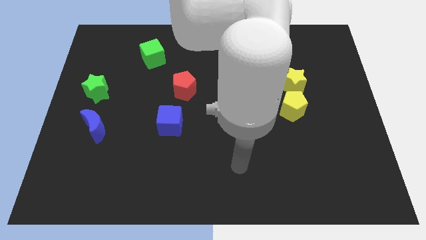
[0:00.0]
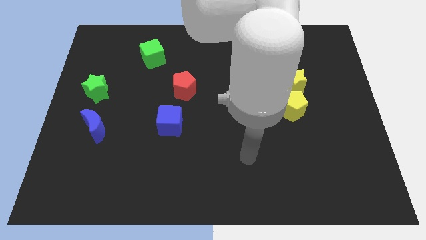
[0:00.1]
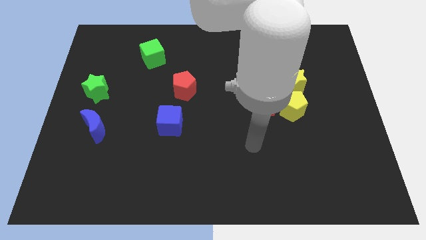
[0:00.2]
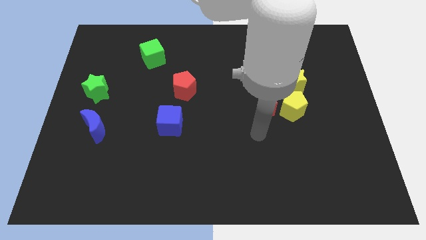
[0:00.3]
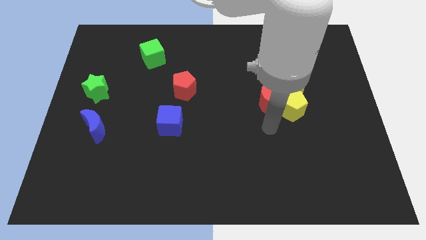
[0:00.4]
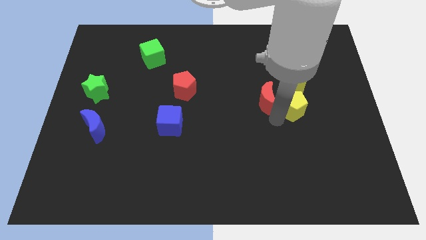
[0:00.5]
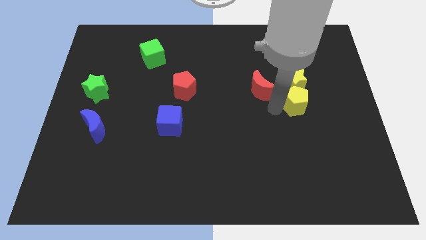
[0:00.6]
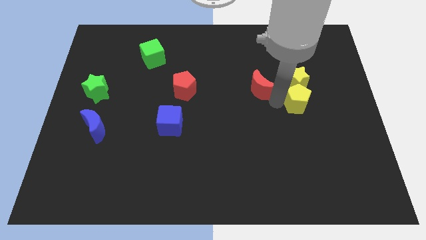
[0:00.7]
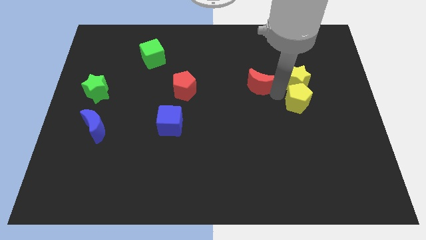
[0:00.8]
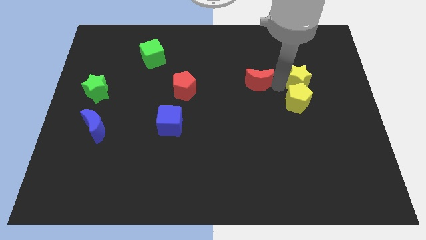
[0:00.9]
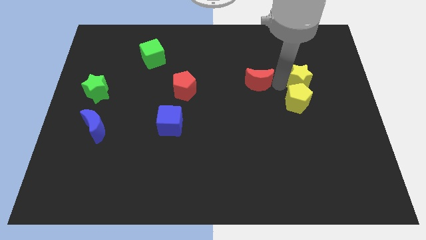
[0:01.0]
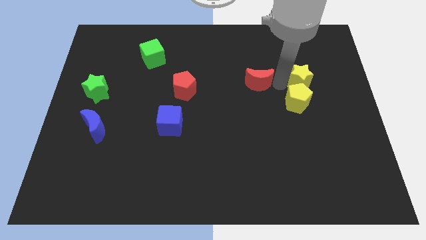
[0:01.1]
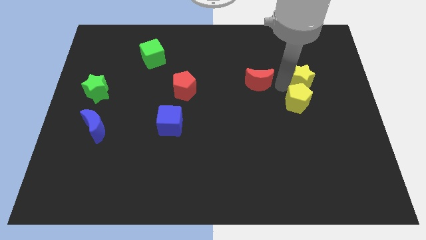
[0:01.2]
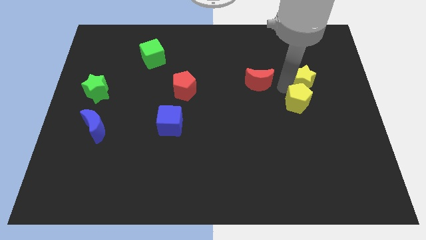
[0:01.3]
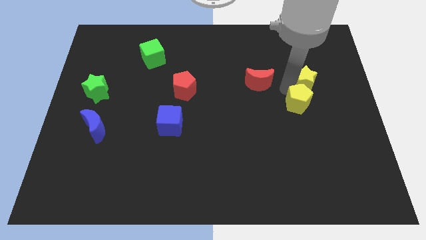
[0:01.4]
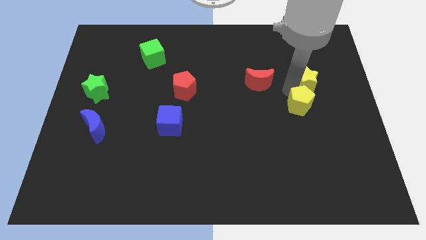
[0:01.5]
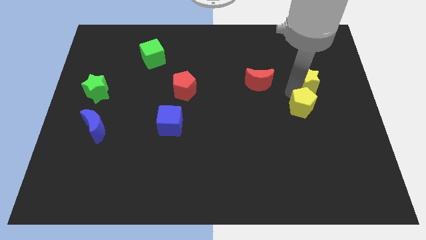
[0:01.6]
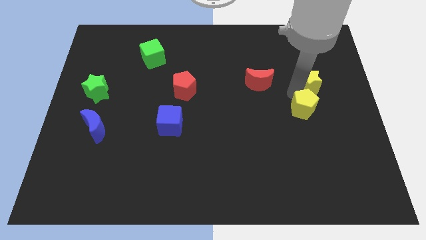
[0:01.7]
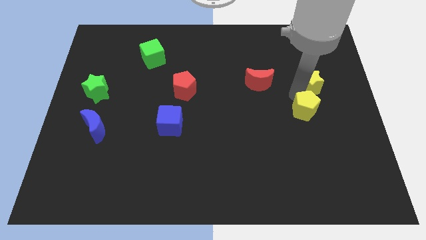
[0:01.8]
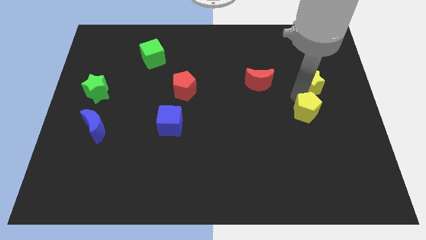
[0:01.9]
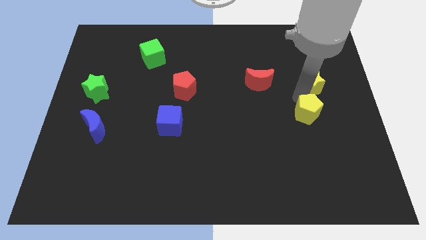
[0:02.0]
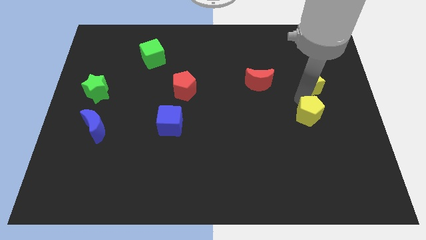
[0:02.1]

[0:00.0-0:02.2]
separate the yellow pentagon from the red moon and yellow star

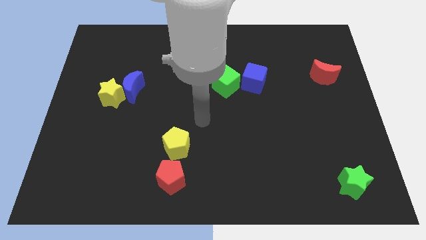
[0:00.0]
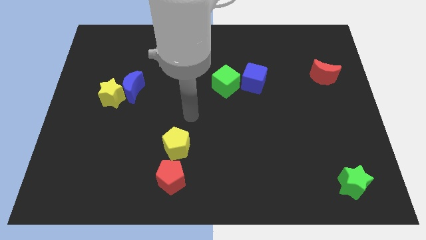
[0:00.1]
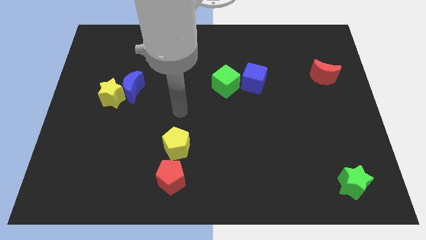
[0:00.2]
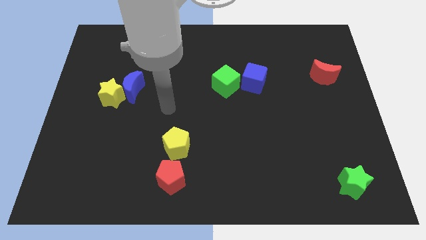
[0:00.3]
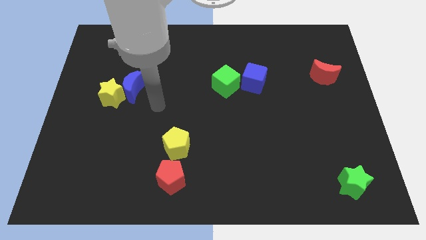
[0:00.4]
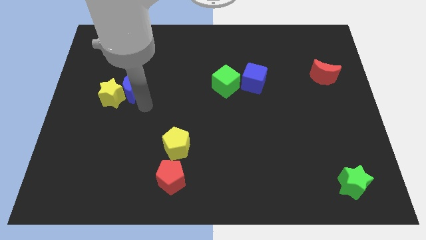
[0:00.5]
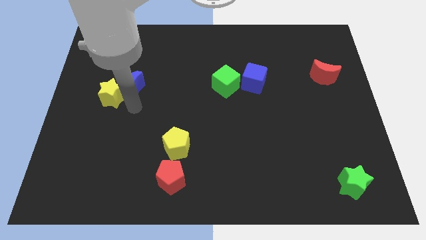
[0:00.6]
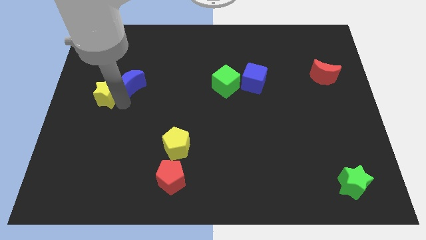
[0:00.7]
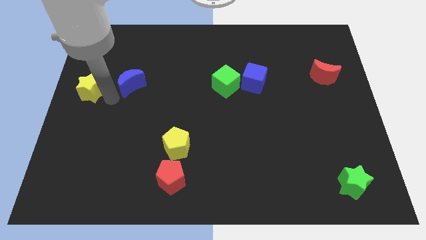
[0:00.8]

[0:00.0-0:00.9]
move the blue moon away from the yellow star

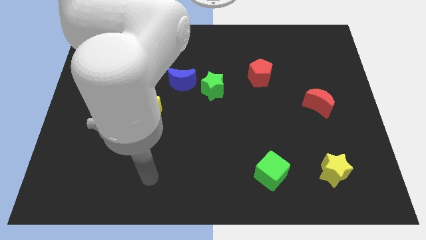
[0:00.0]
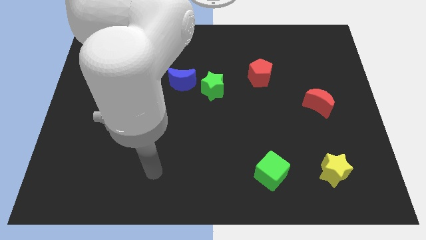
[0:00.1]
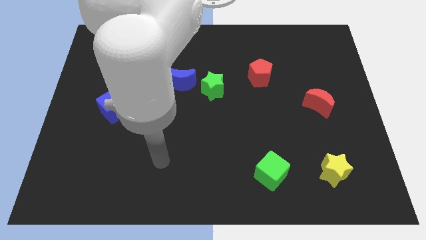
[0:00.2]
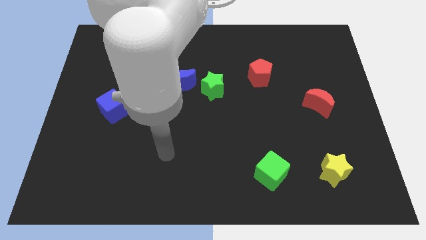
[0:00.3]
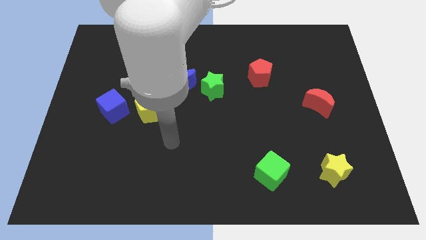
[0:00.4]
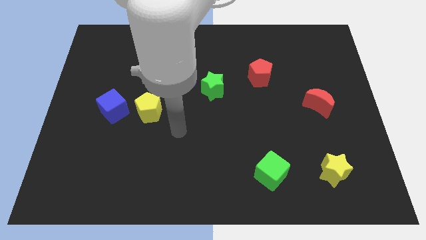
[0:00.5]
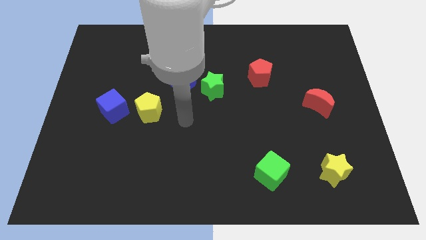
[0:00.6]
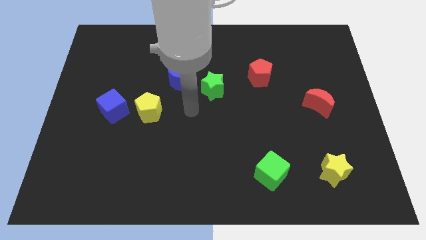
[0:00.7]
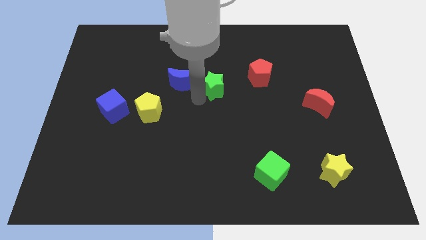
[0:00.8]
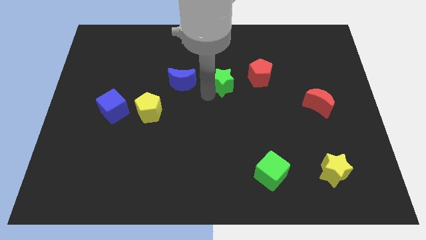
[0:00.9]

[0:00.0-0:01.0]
separate the blue moon from the green star

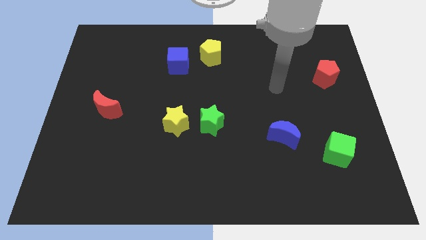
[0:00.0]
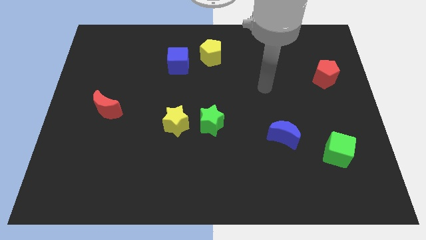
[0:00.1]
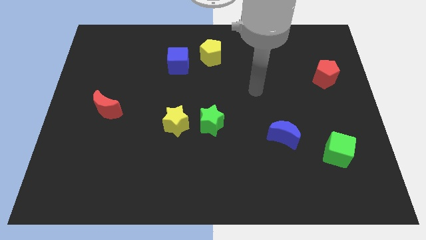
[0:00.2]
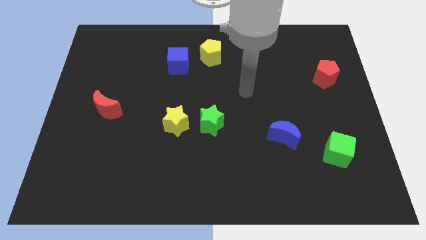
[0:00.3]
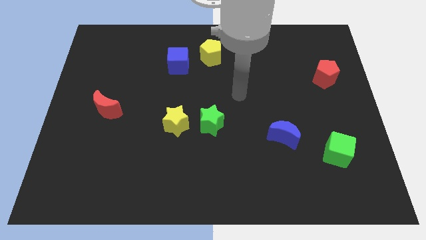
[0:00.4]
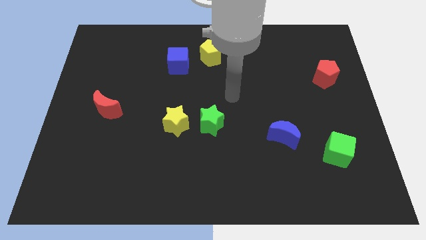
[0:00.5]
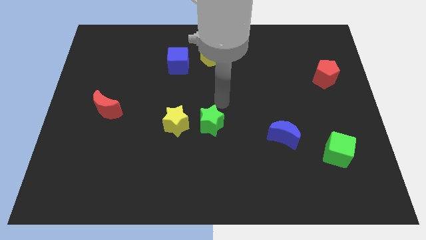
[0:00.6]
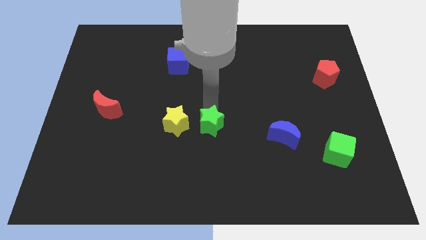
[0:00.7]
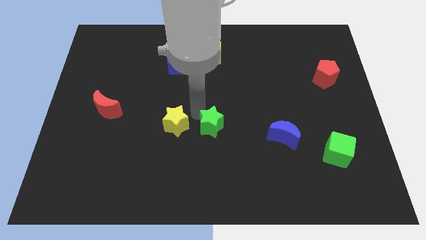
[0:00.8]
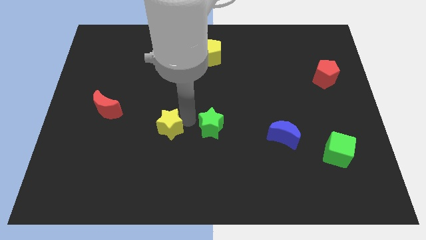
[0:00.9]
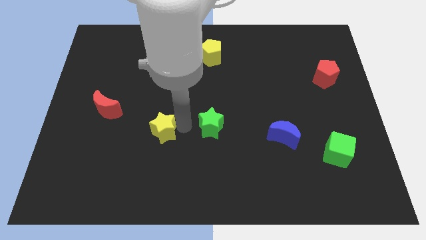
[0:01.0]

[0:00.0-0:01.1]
separate the green star from the yellow star

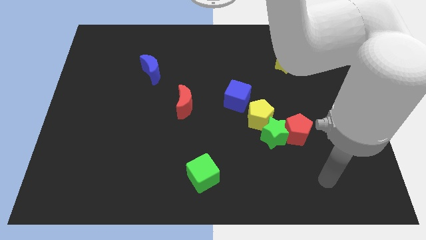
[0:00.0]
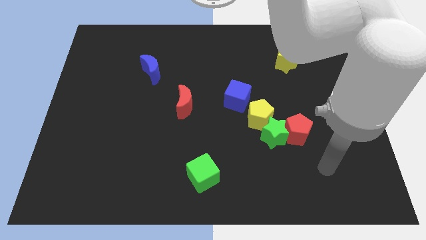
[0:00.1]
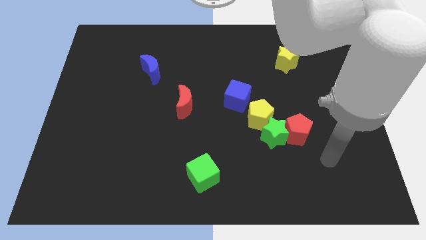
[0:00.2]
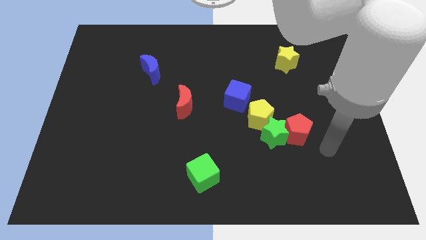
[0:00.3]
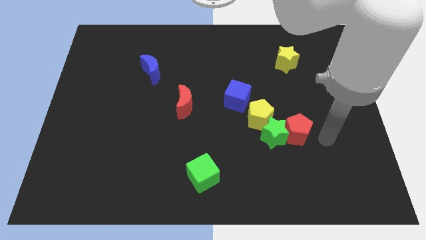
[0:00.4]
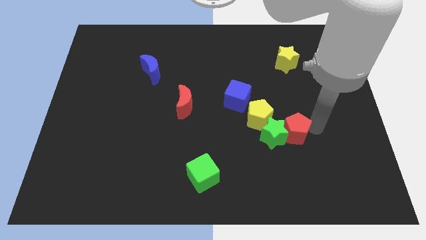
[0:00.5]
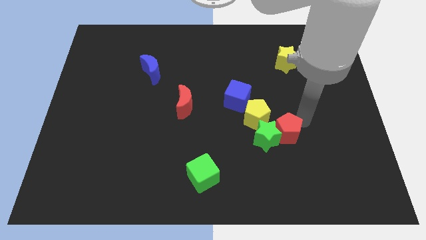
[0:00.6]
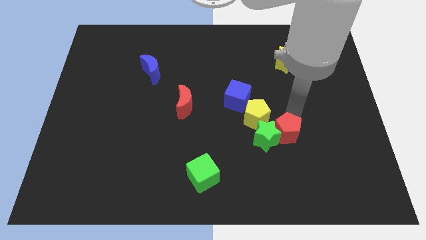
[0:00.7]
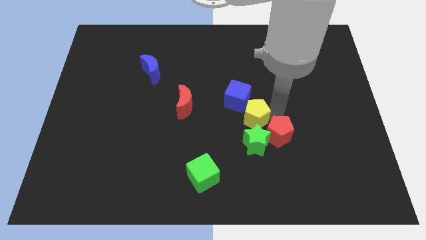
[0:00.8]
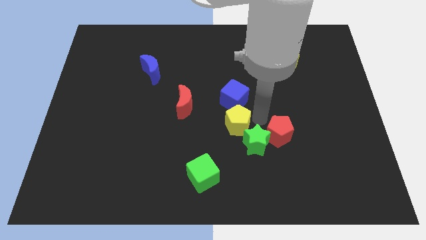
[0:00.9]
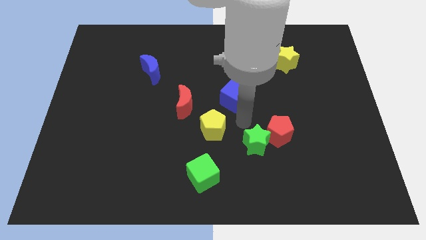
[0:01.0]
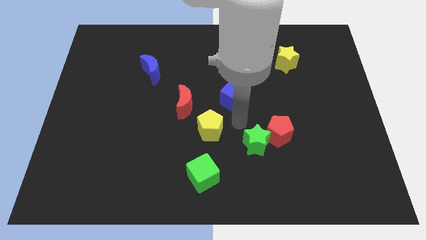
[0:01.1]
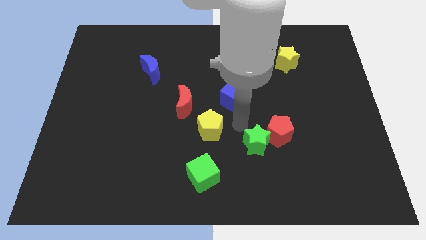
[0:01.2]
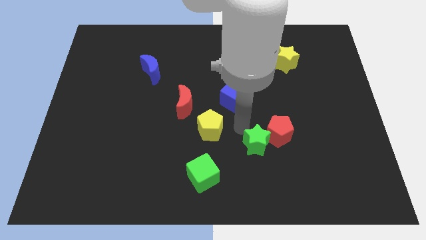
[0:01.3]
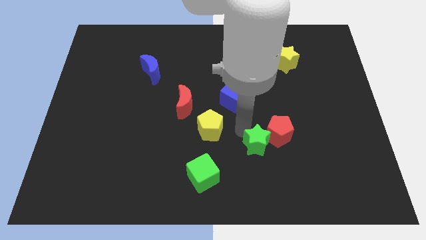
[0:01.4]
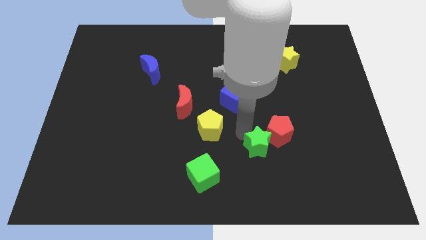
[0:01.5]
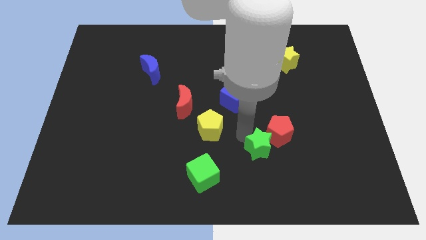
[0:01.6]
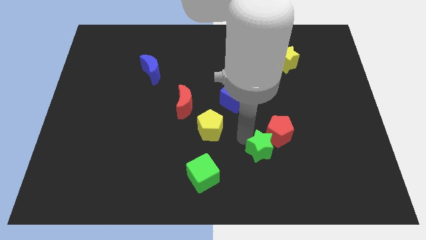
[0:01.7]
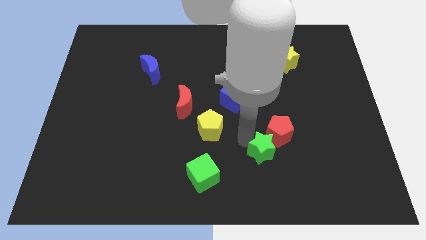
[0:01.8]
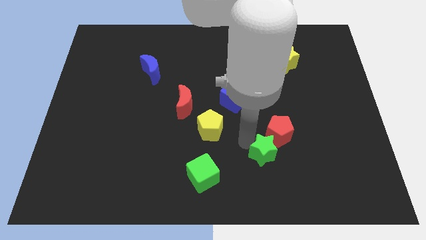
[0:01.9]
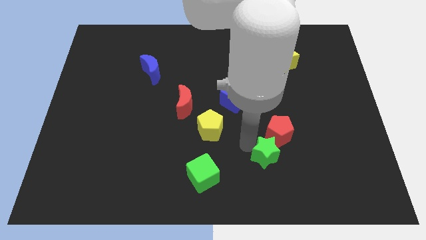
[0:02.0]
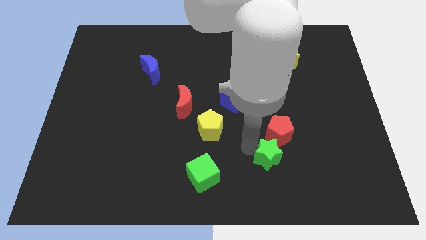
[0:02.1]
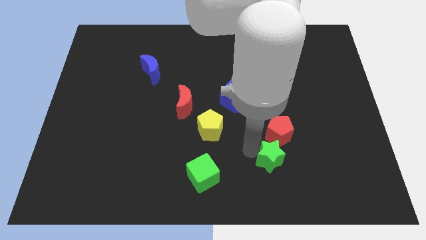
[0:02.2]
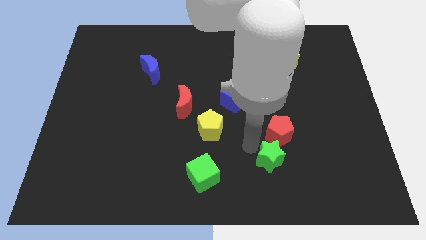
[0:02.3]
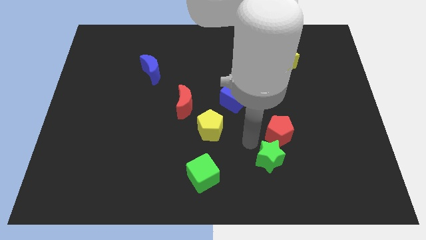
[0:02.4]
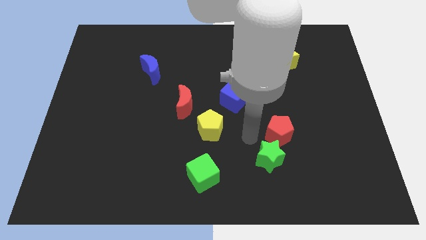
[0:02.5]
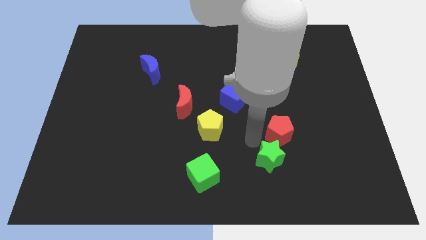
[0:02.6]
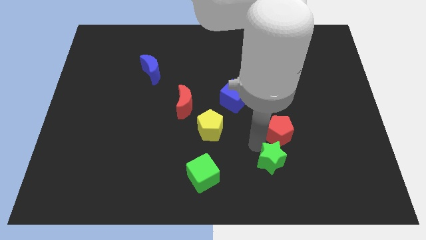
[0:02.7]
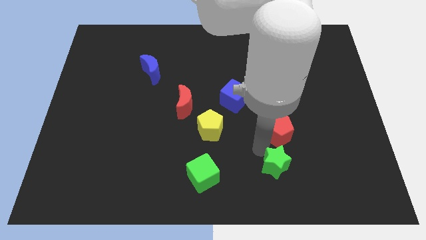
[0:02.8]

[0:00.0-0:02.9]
move the green star away from the red pentagon and yellow pentagon

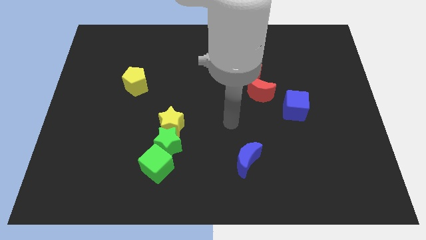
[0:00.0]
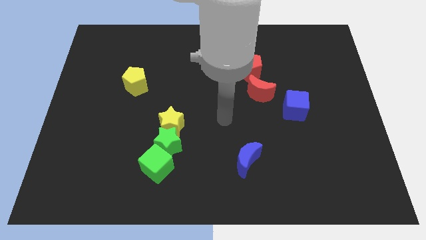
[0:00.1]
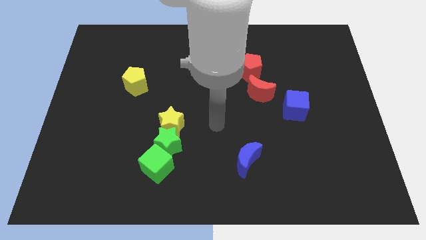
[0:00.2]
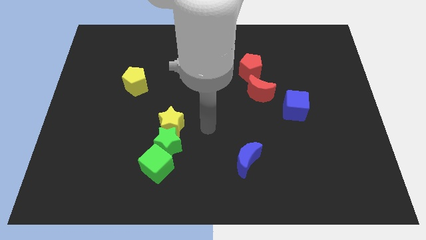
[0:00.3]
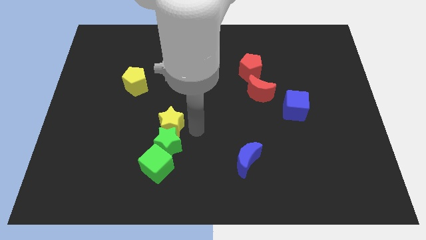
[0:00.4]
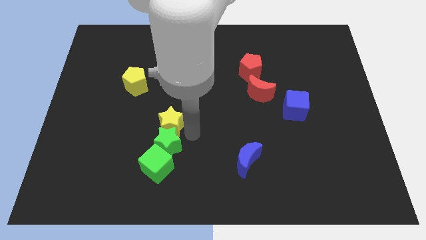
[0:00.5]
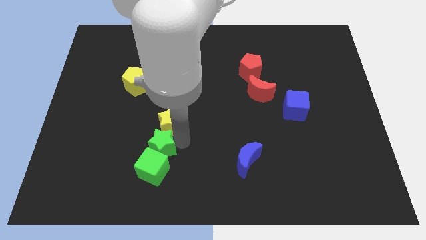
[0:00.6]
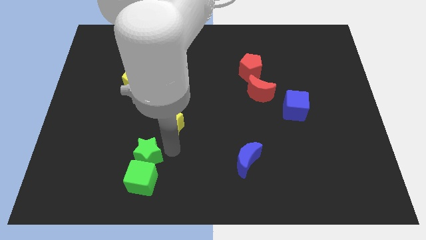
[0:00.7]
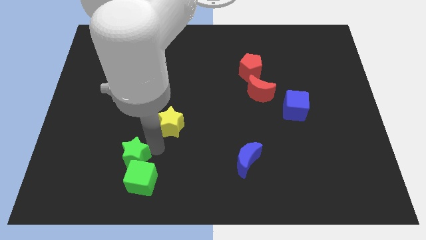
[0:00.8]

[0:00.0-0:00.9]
move the yellow star away from the green star

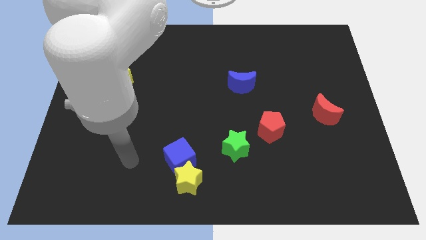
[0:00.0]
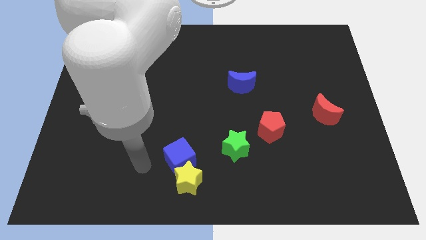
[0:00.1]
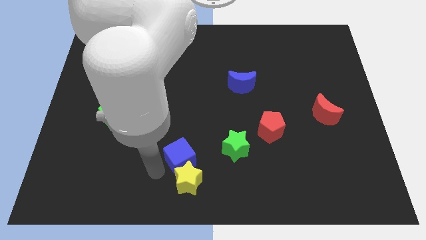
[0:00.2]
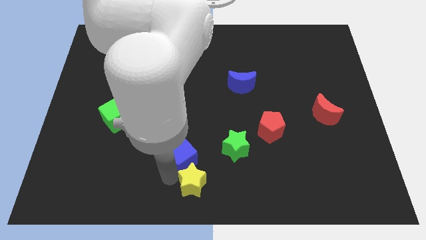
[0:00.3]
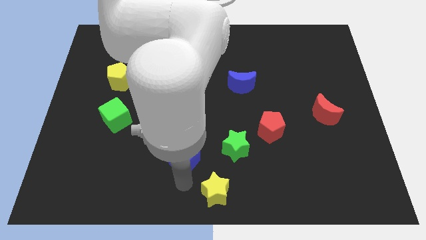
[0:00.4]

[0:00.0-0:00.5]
move the blue cube away from the yellow star
